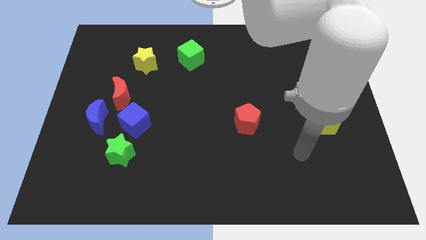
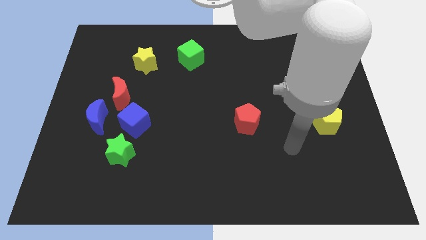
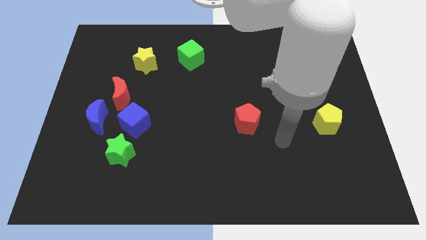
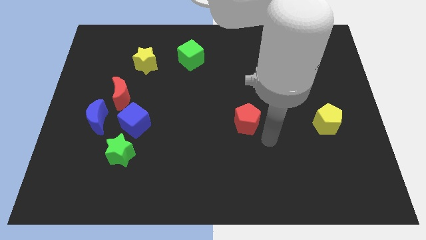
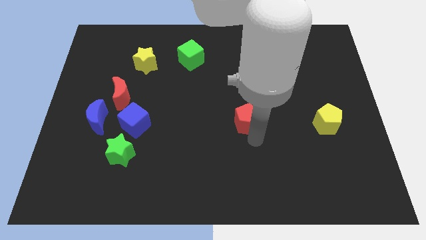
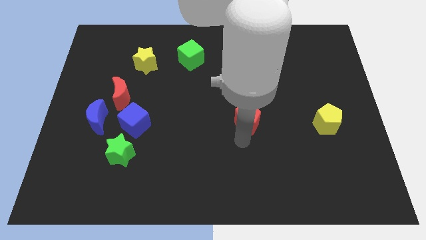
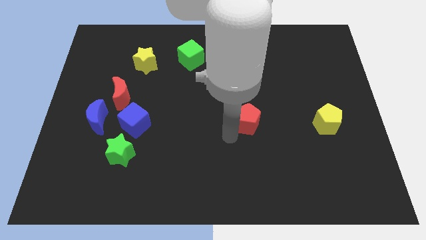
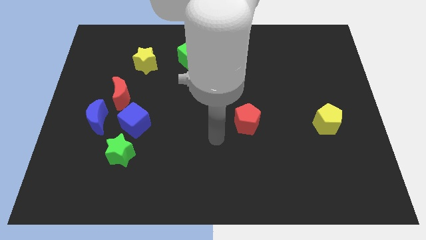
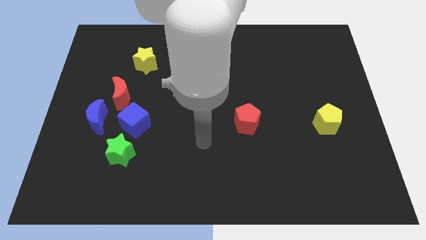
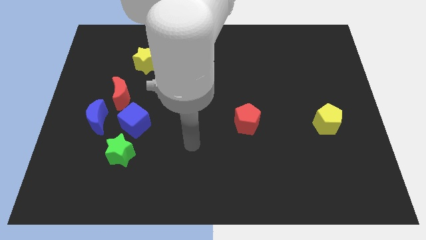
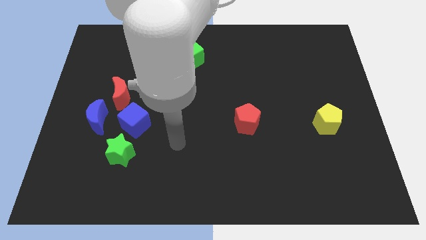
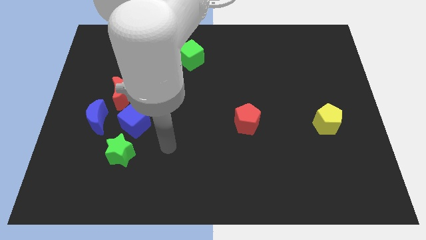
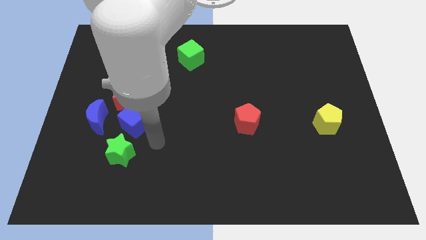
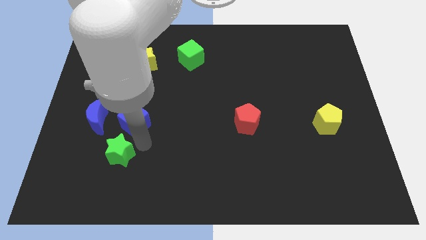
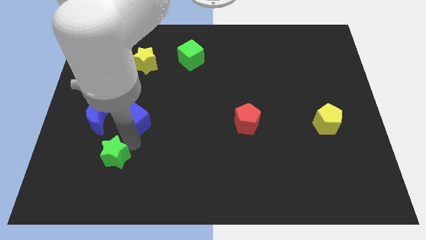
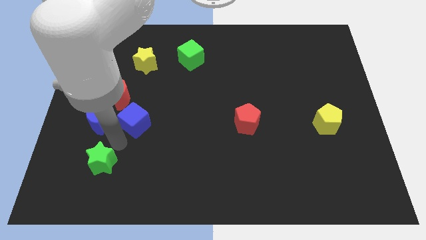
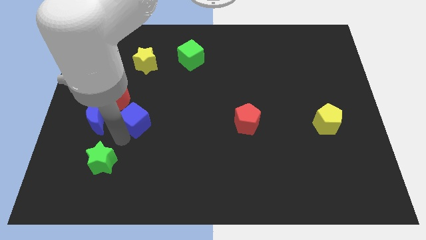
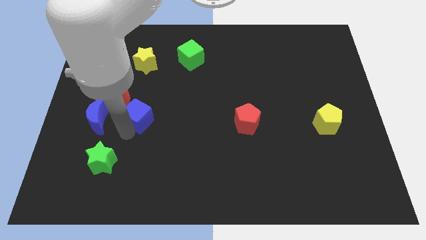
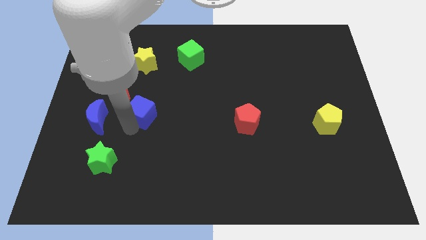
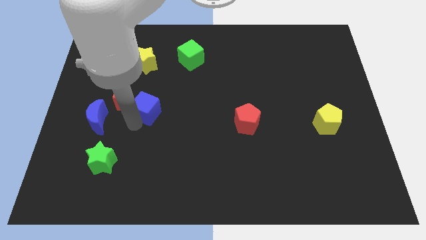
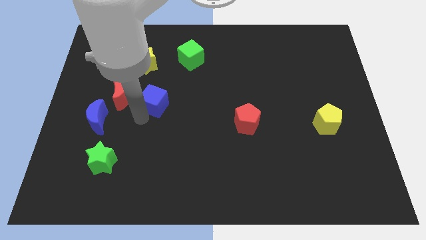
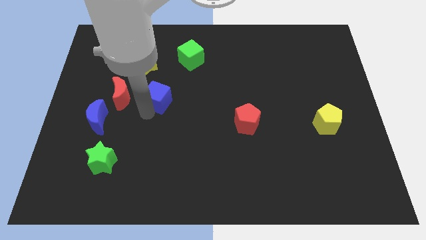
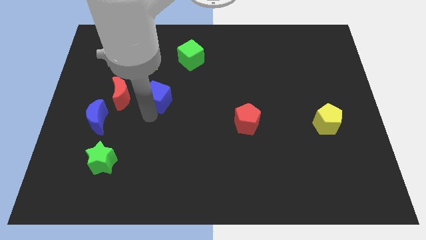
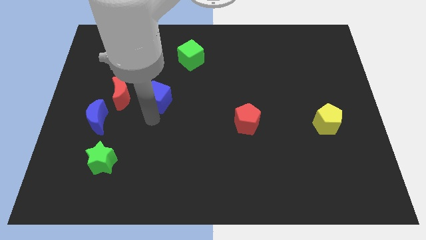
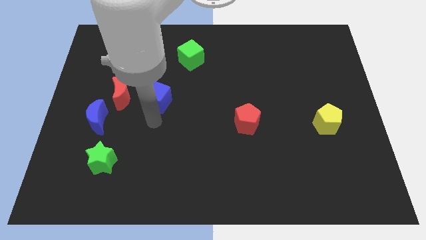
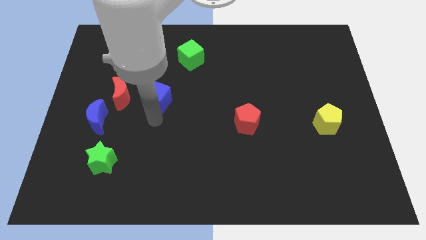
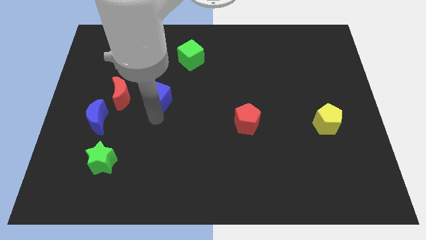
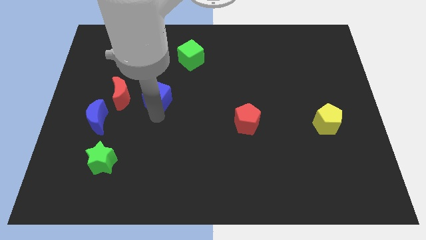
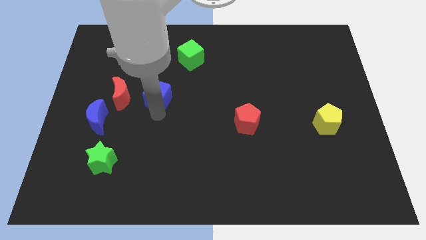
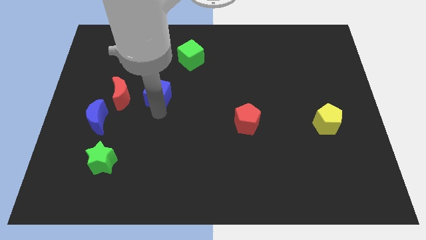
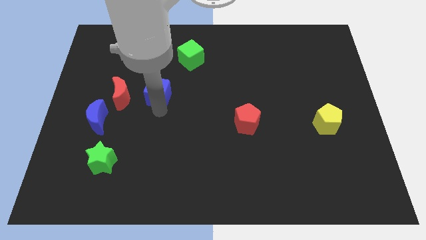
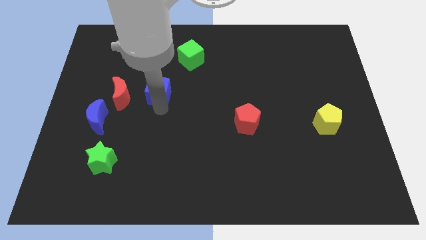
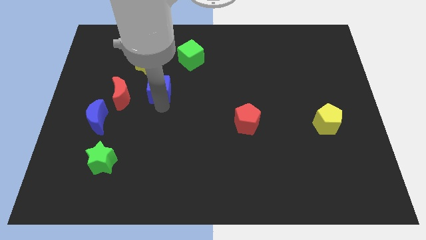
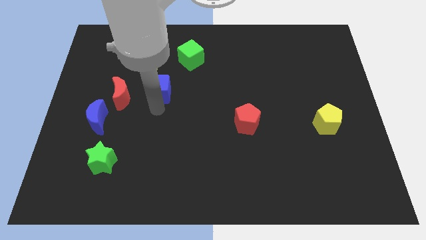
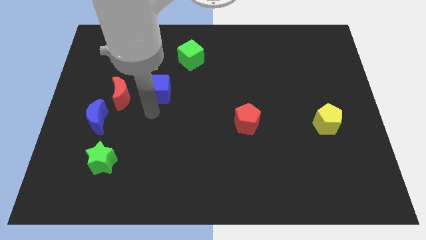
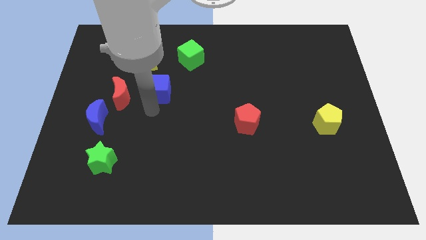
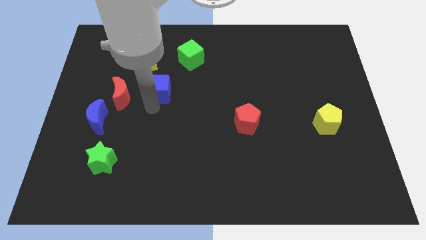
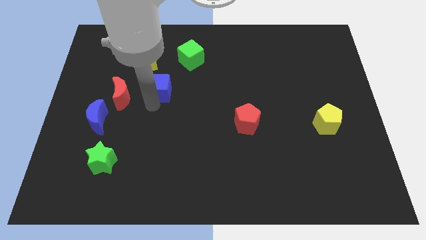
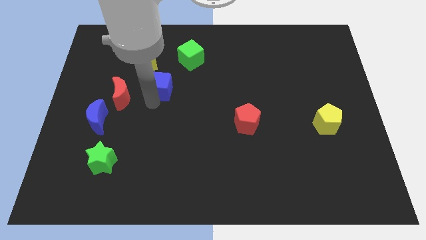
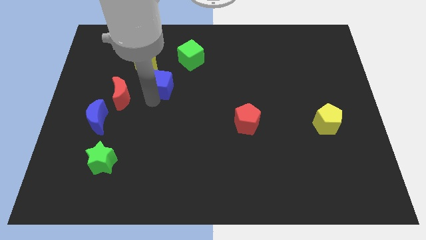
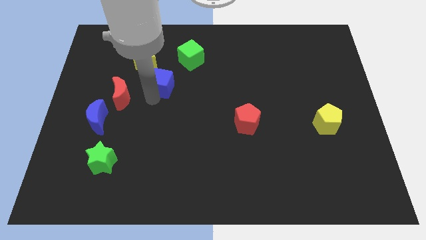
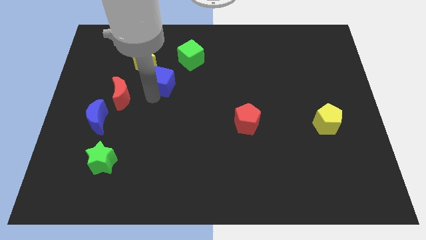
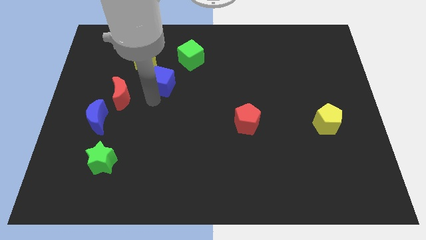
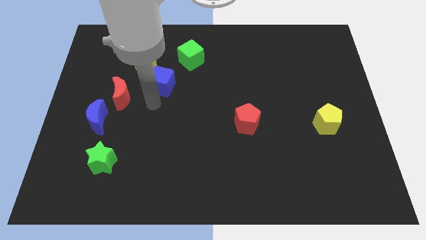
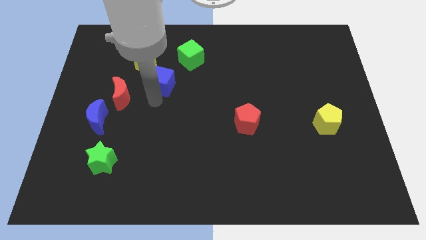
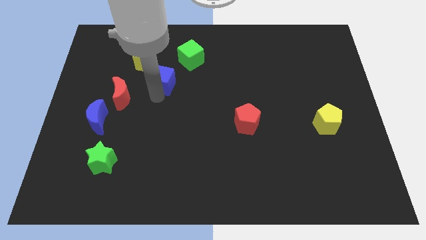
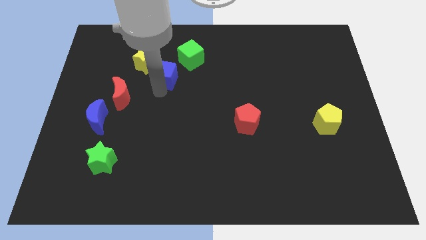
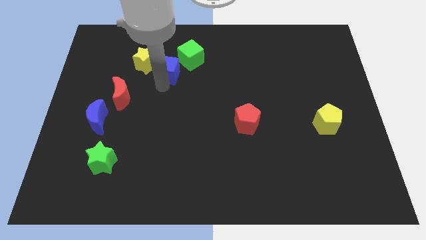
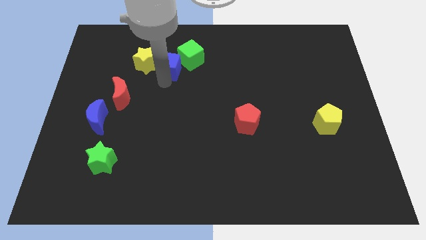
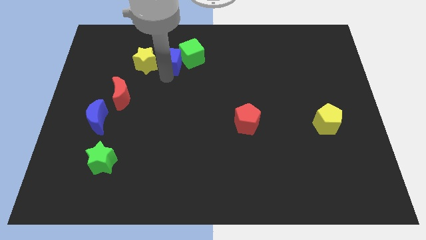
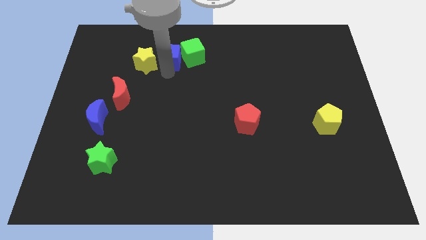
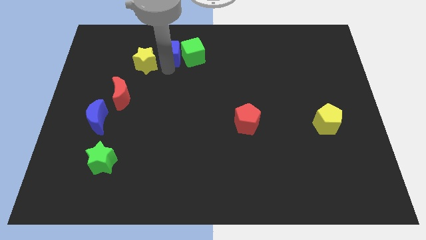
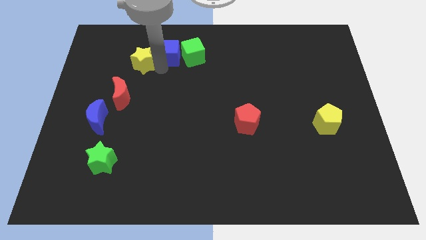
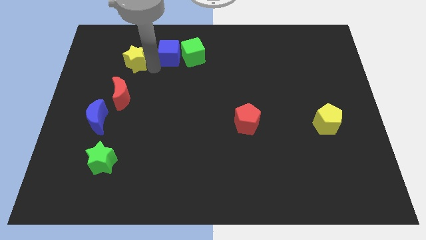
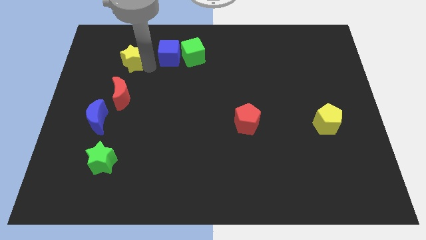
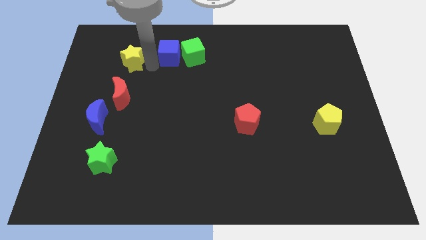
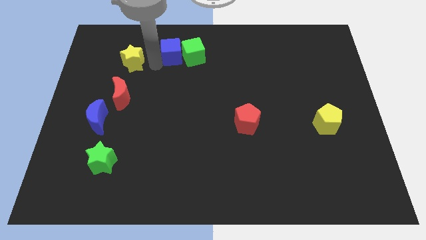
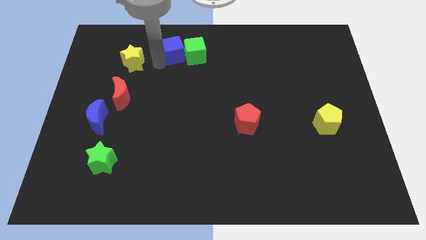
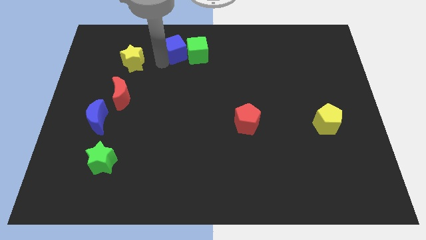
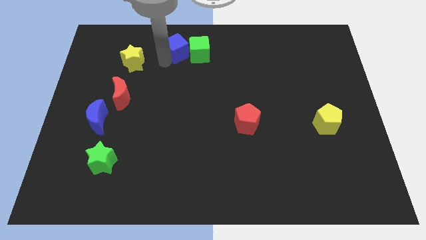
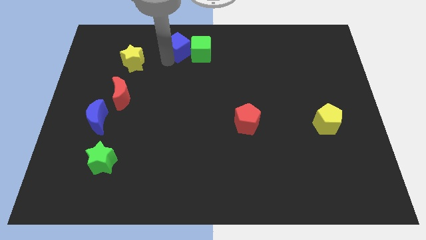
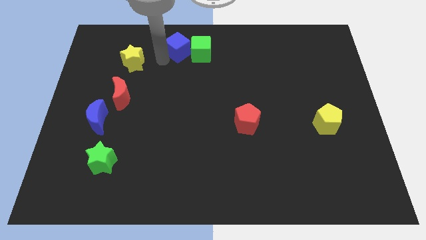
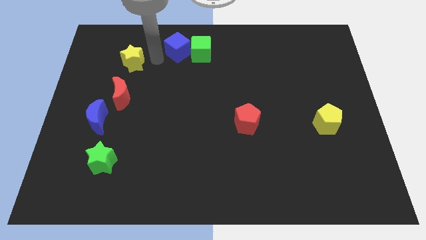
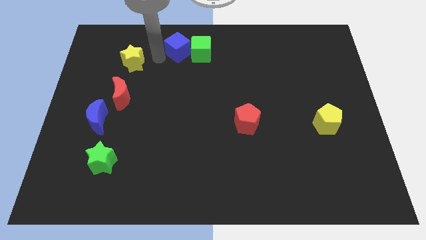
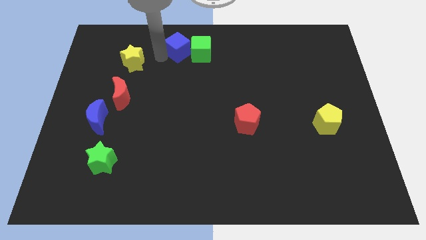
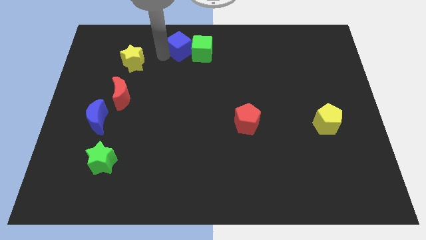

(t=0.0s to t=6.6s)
move the blue cube to the top
